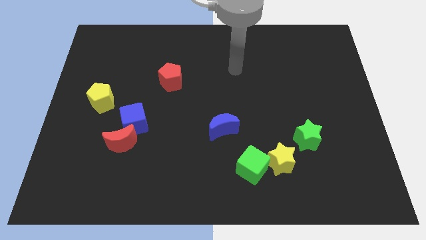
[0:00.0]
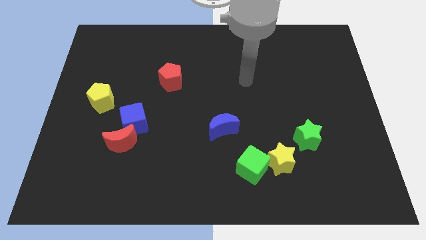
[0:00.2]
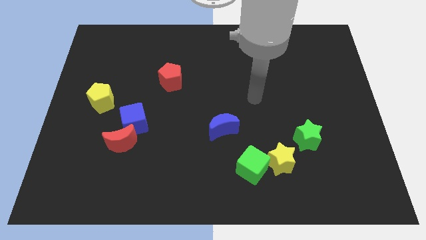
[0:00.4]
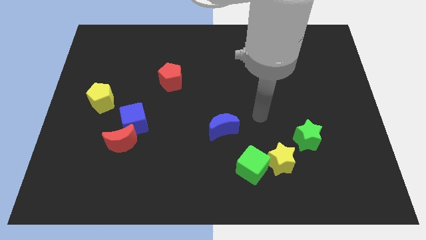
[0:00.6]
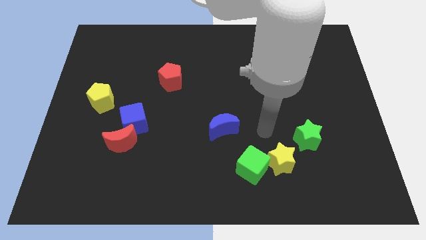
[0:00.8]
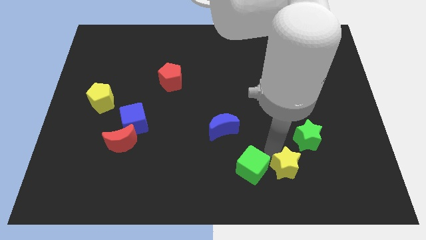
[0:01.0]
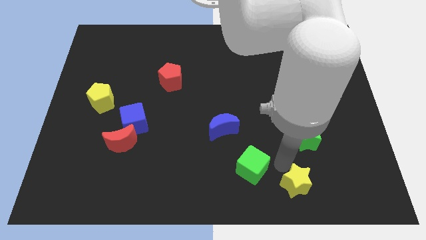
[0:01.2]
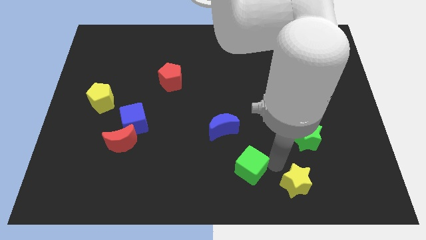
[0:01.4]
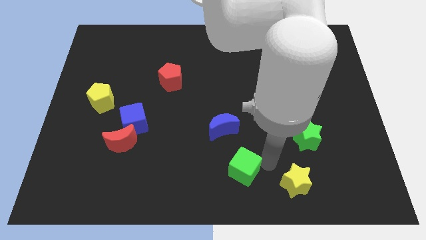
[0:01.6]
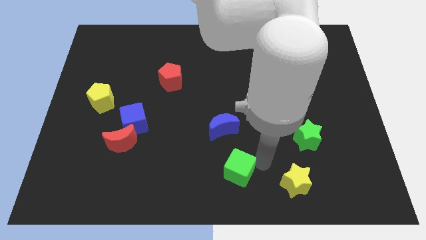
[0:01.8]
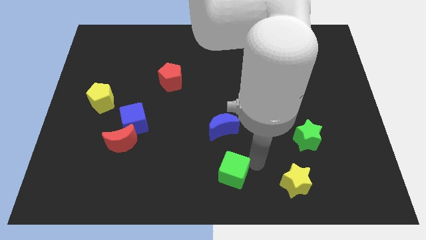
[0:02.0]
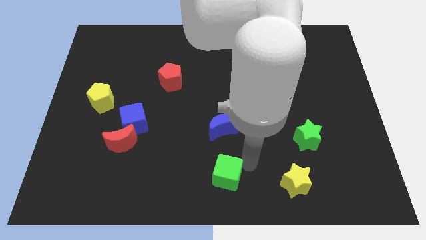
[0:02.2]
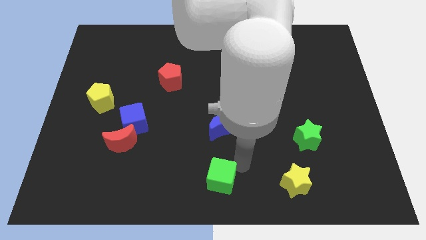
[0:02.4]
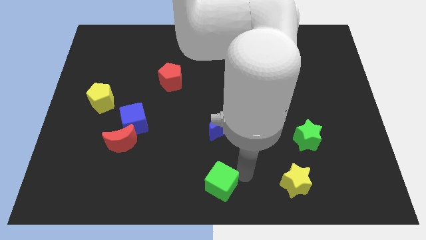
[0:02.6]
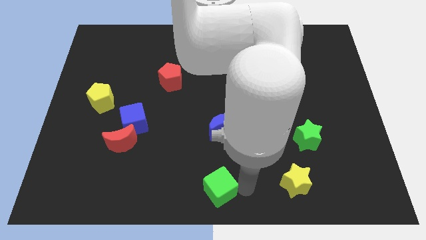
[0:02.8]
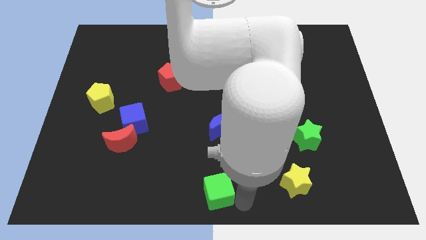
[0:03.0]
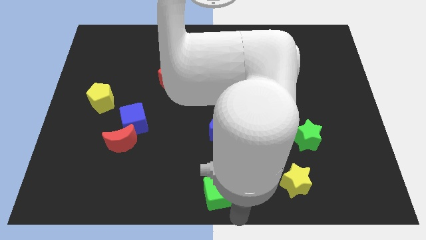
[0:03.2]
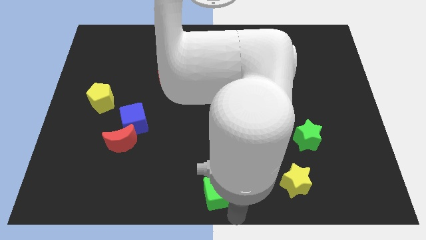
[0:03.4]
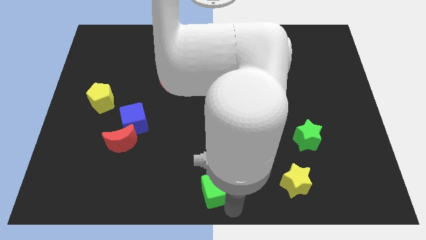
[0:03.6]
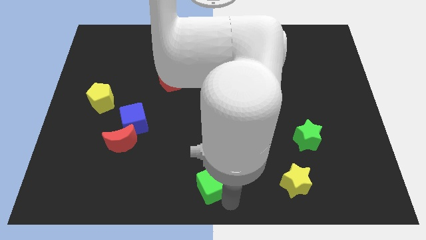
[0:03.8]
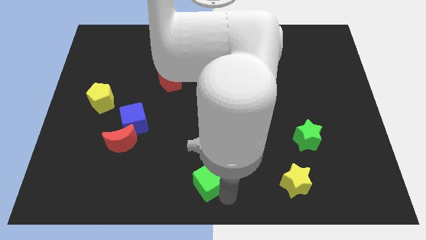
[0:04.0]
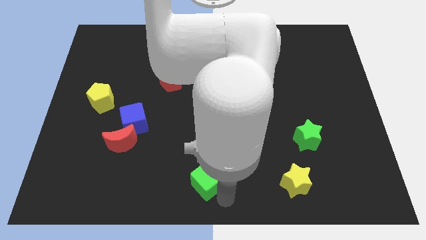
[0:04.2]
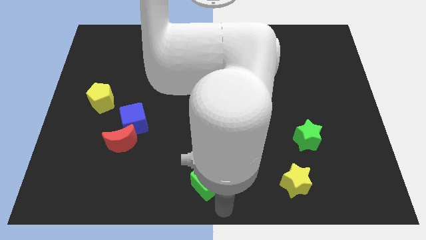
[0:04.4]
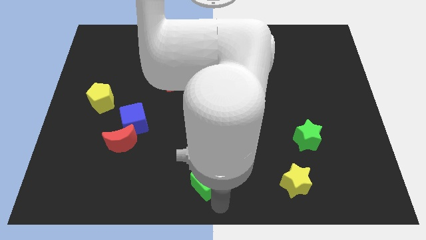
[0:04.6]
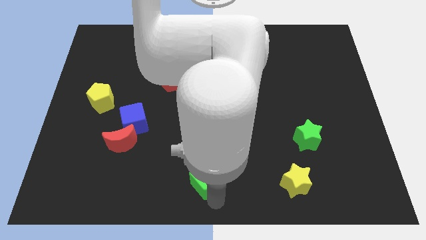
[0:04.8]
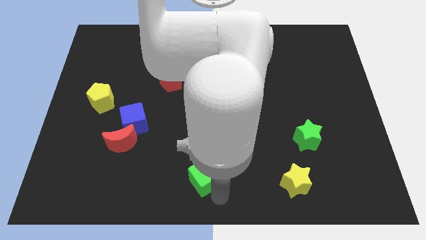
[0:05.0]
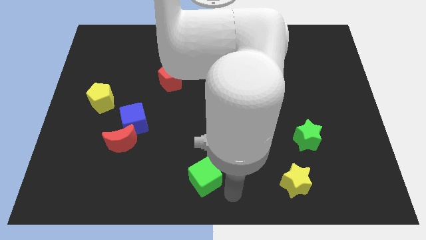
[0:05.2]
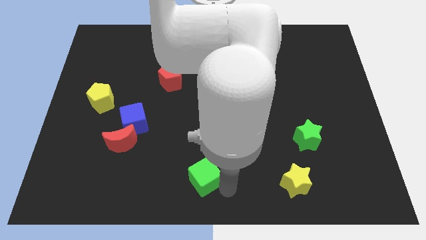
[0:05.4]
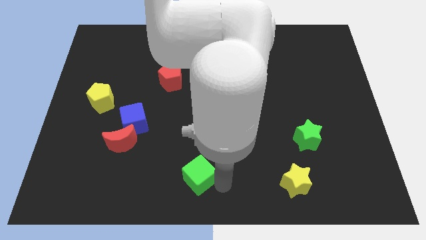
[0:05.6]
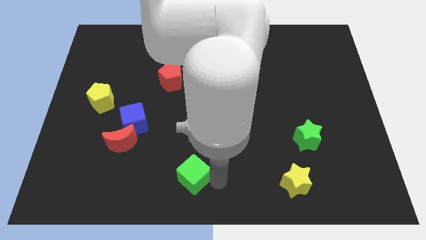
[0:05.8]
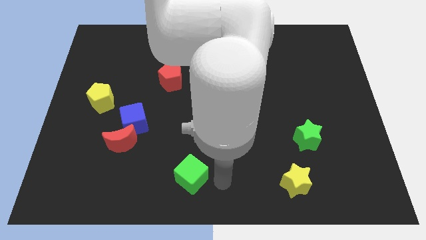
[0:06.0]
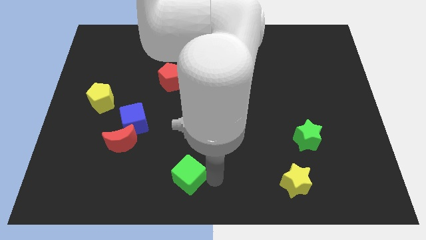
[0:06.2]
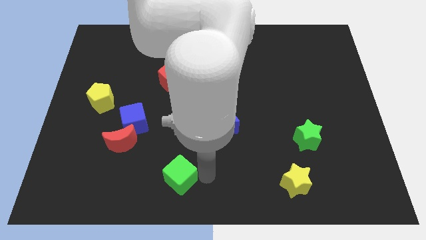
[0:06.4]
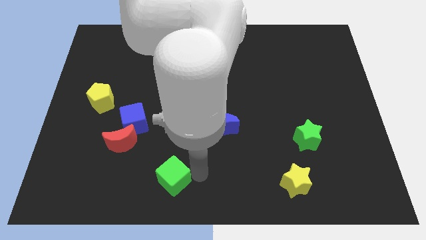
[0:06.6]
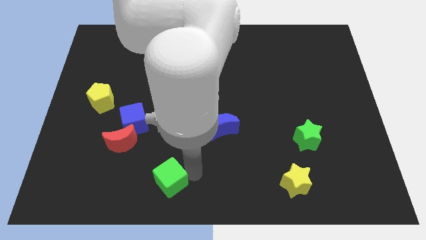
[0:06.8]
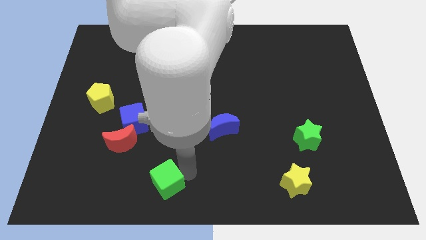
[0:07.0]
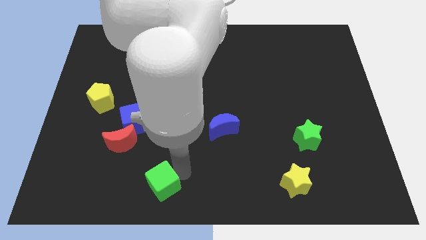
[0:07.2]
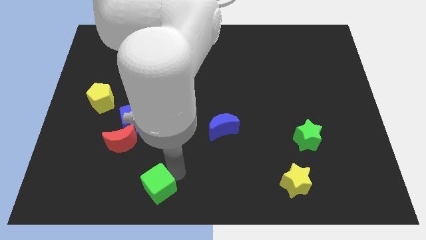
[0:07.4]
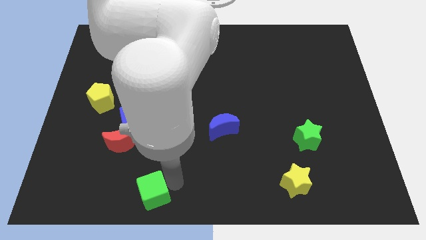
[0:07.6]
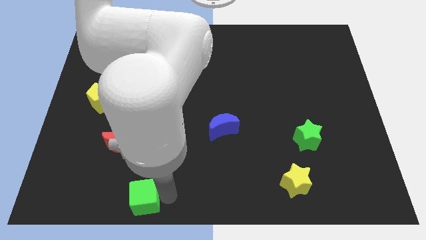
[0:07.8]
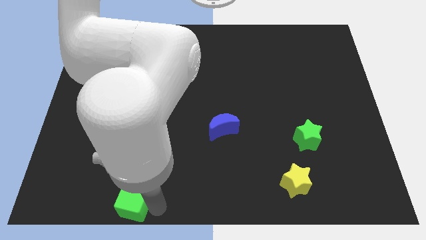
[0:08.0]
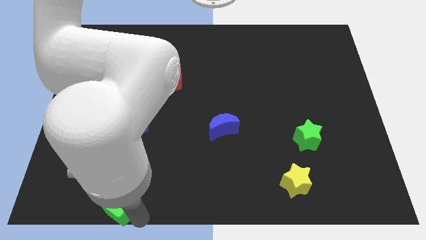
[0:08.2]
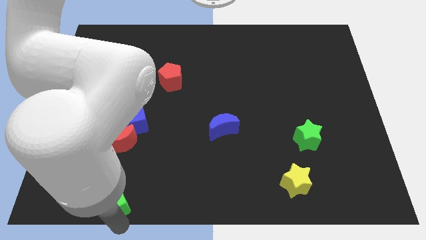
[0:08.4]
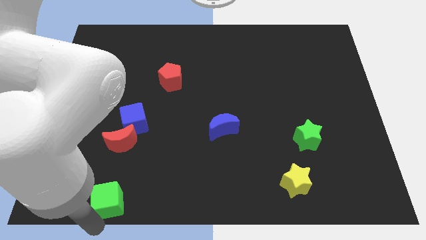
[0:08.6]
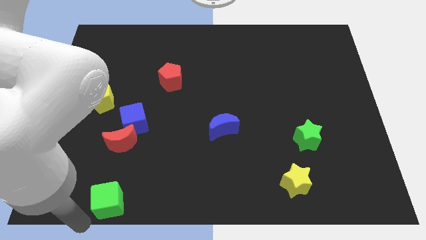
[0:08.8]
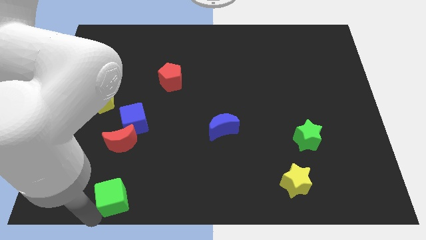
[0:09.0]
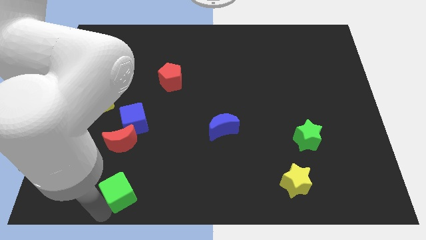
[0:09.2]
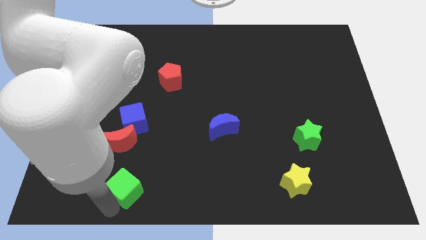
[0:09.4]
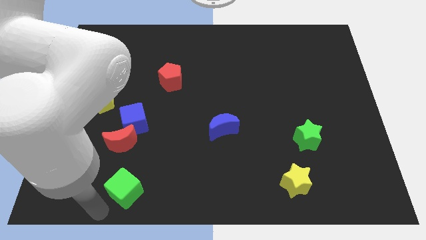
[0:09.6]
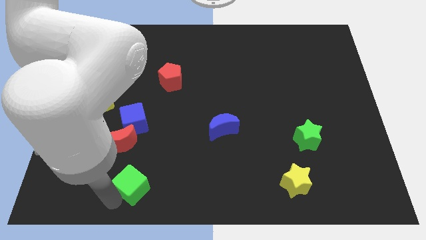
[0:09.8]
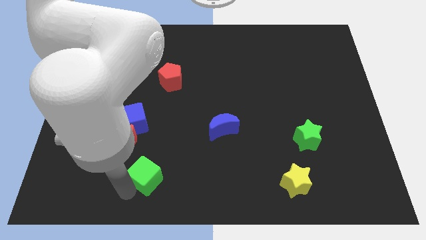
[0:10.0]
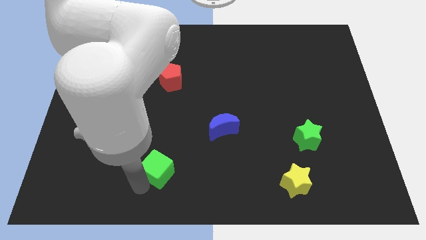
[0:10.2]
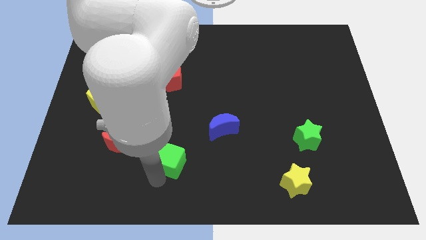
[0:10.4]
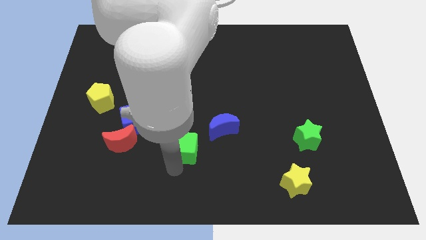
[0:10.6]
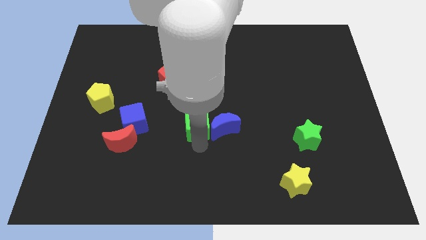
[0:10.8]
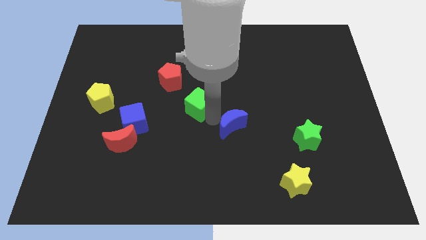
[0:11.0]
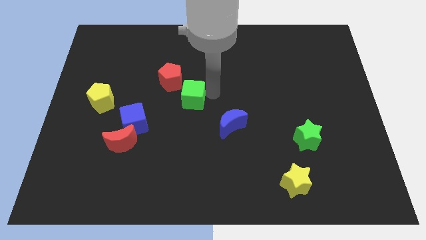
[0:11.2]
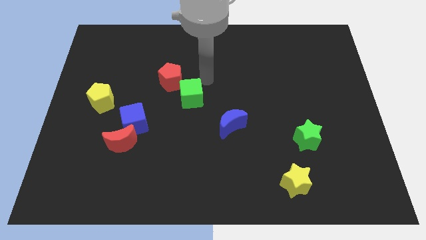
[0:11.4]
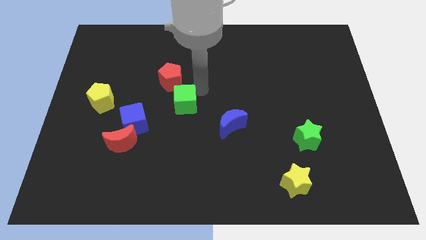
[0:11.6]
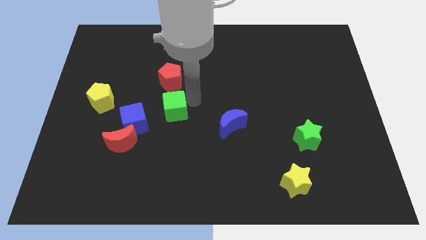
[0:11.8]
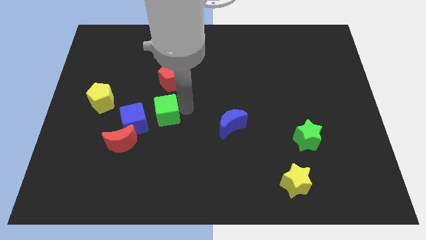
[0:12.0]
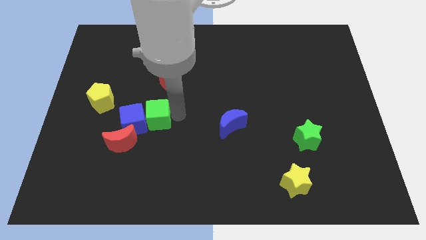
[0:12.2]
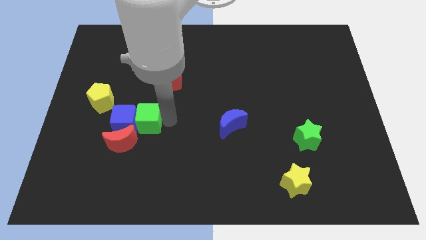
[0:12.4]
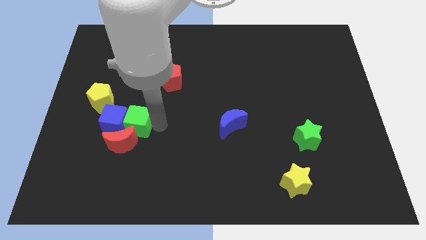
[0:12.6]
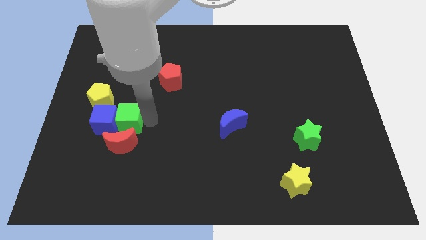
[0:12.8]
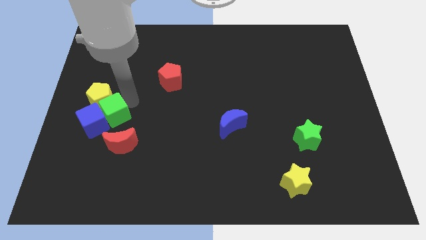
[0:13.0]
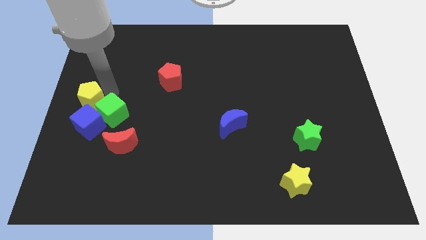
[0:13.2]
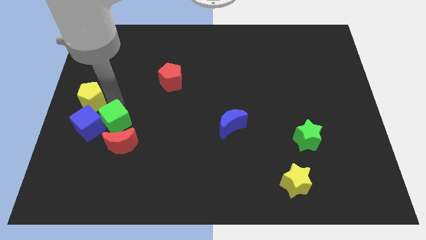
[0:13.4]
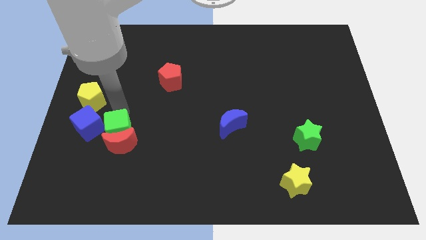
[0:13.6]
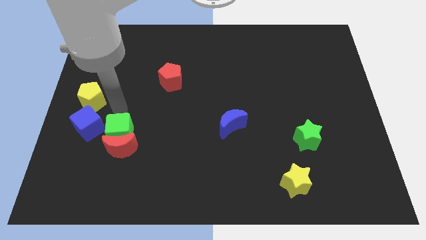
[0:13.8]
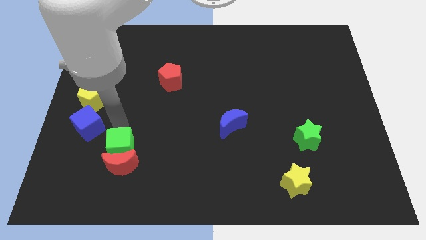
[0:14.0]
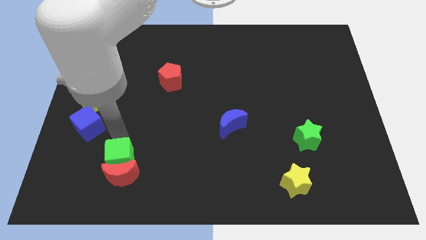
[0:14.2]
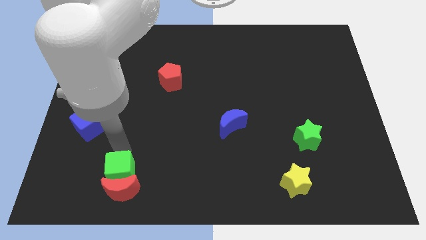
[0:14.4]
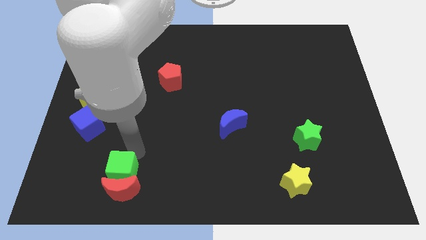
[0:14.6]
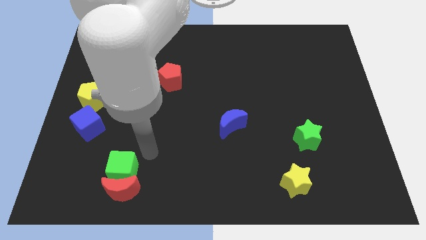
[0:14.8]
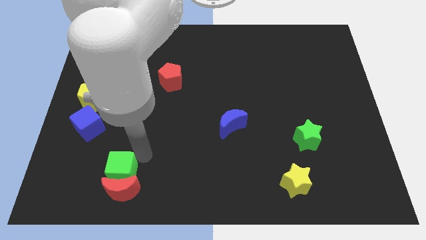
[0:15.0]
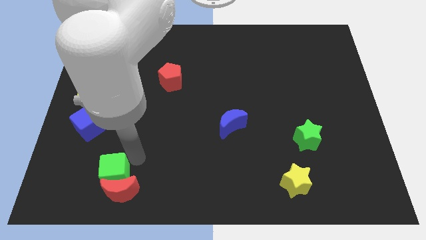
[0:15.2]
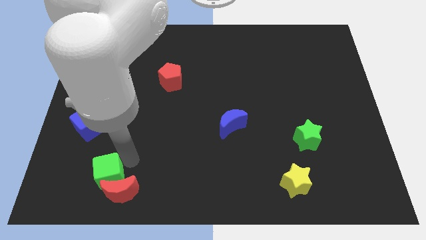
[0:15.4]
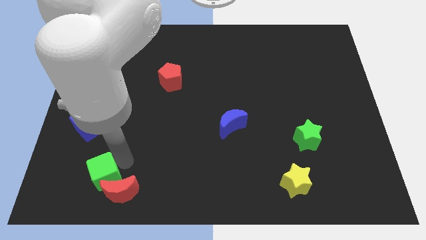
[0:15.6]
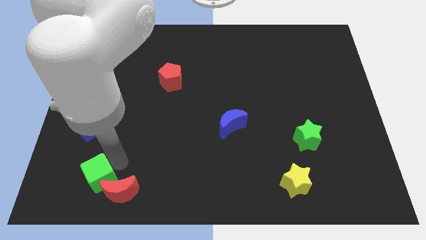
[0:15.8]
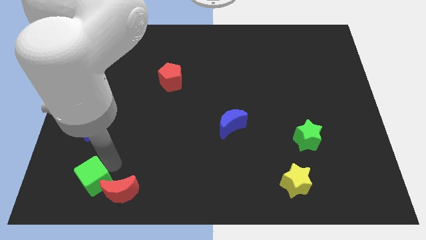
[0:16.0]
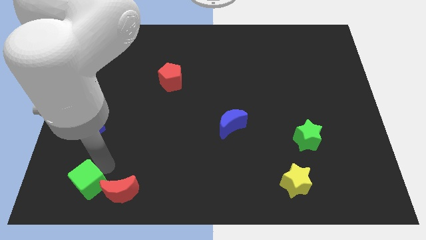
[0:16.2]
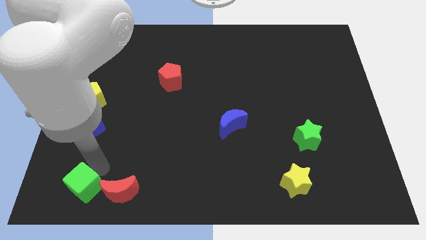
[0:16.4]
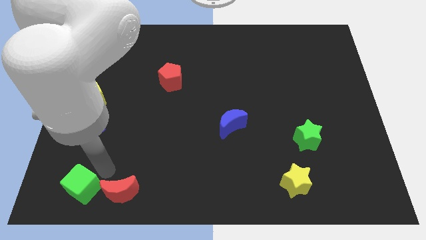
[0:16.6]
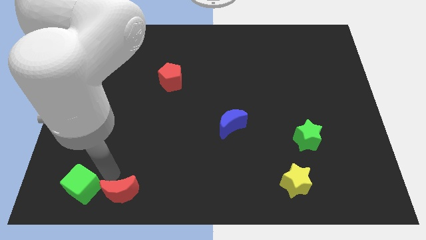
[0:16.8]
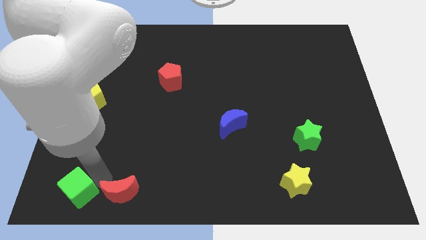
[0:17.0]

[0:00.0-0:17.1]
push the green cube to the bottom left corner
